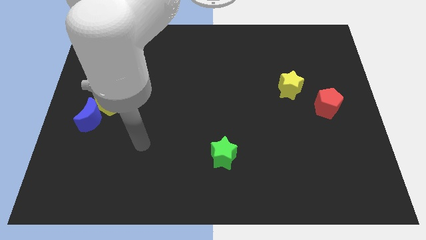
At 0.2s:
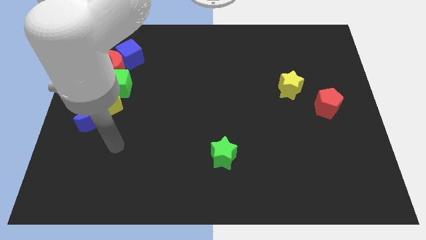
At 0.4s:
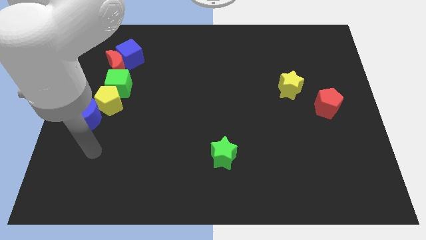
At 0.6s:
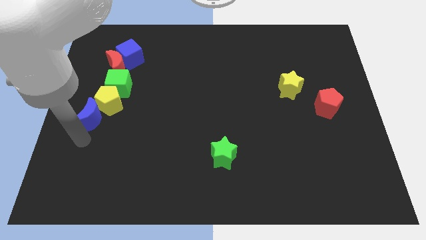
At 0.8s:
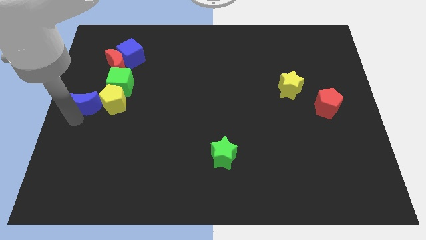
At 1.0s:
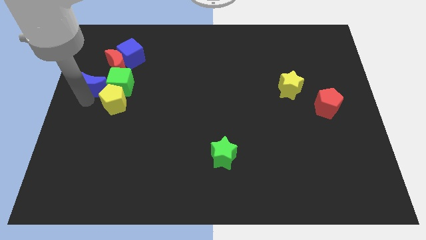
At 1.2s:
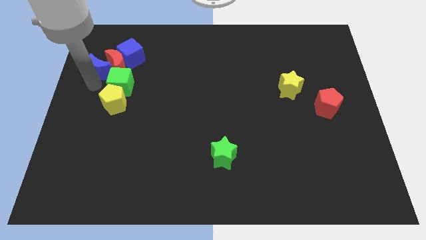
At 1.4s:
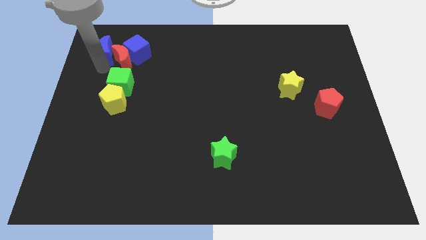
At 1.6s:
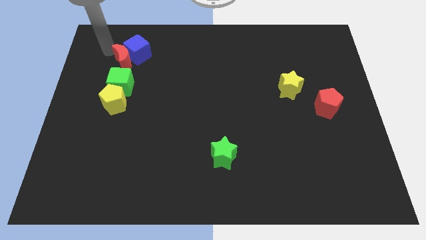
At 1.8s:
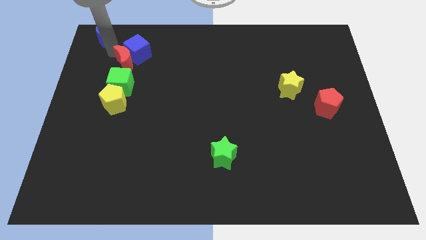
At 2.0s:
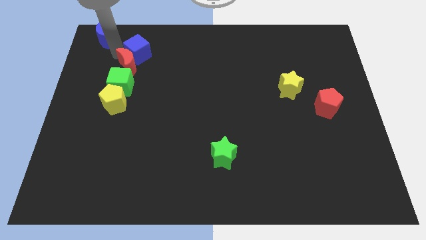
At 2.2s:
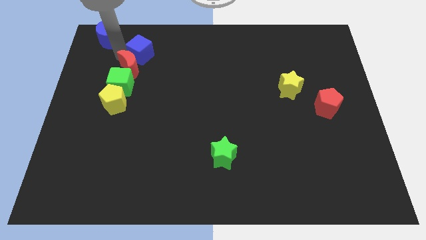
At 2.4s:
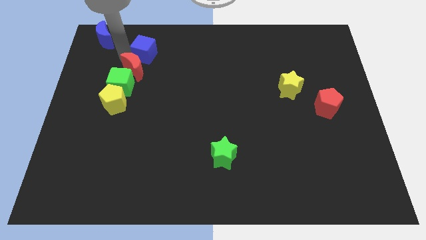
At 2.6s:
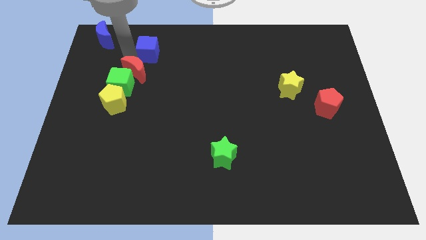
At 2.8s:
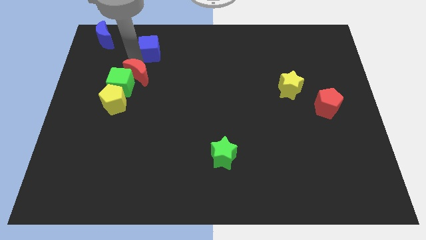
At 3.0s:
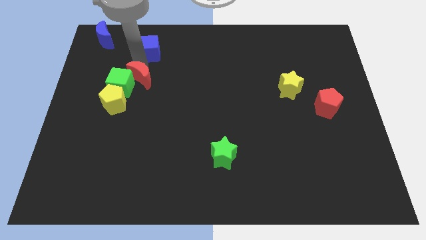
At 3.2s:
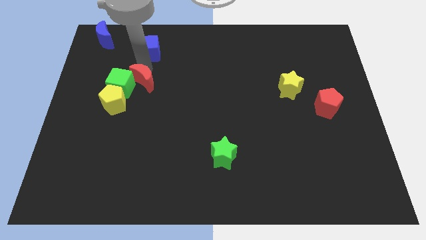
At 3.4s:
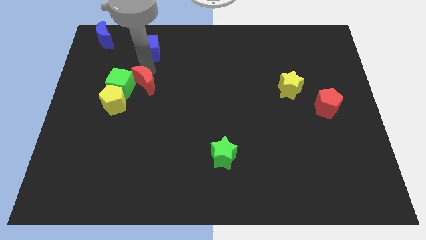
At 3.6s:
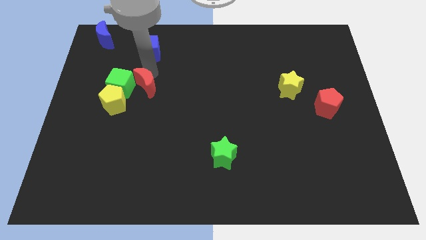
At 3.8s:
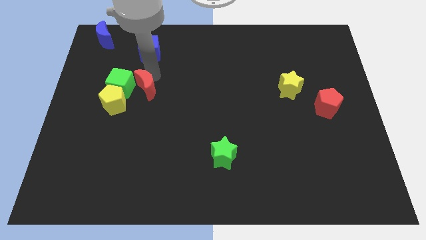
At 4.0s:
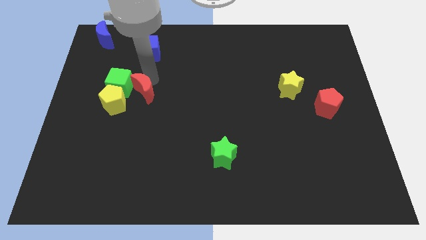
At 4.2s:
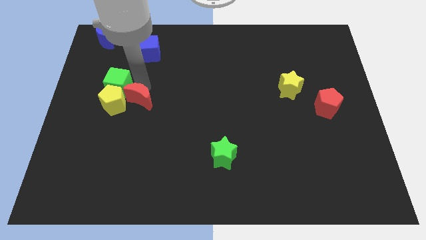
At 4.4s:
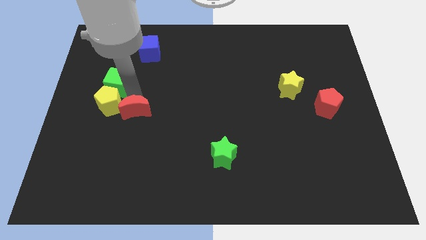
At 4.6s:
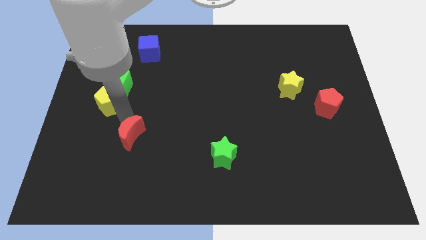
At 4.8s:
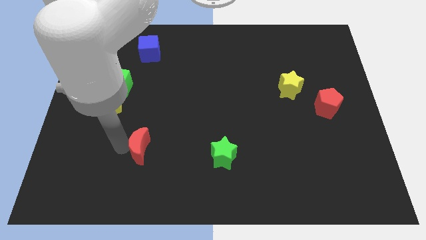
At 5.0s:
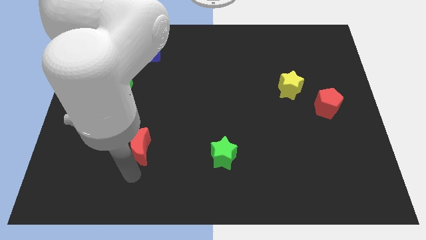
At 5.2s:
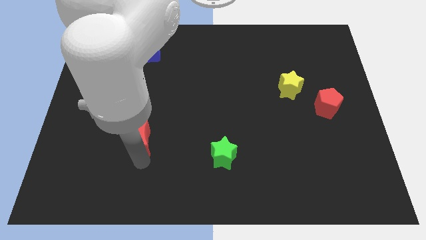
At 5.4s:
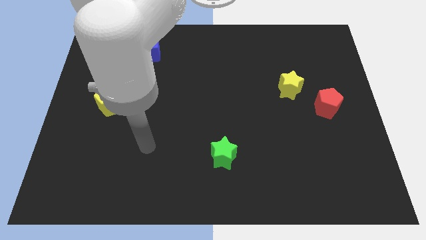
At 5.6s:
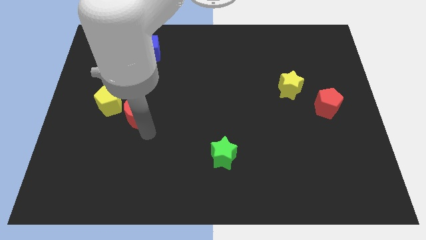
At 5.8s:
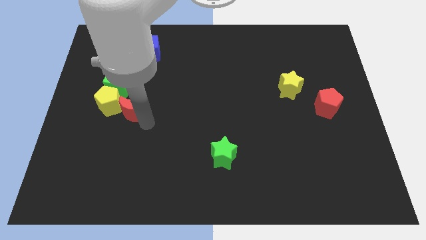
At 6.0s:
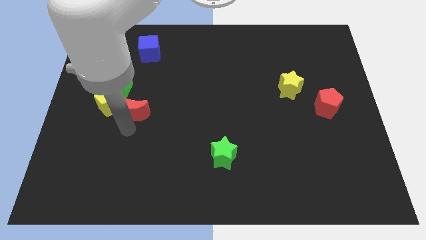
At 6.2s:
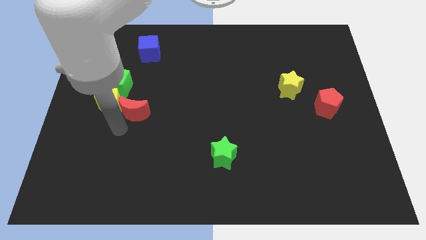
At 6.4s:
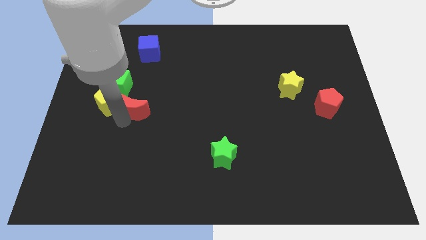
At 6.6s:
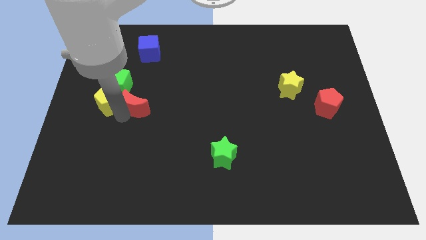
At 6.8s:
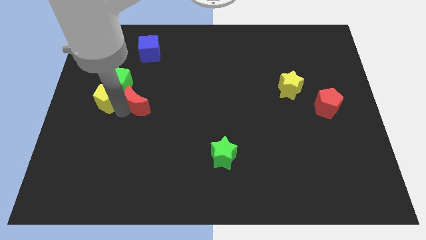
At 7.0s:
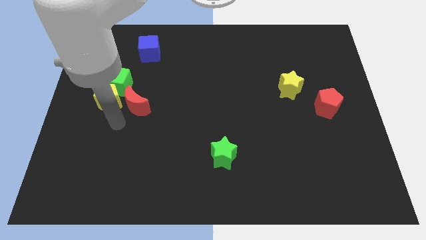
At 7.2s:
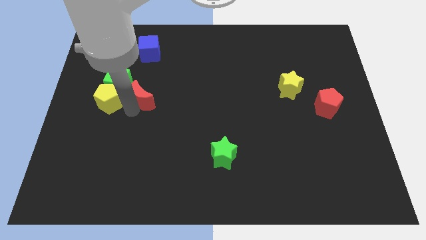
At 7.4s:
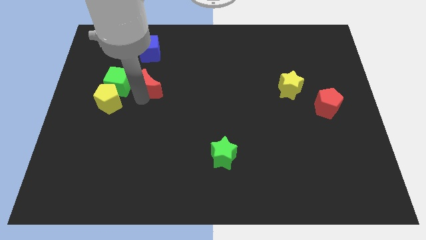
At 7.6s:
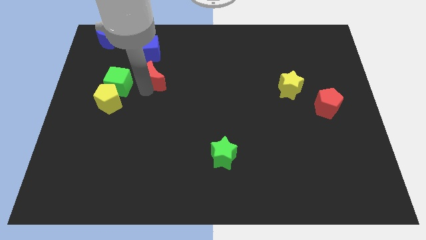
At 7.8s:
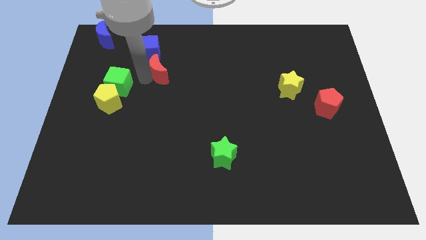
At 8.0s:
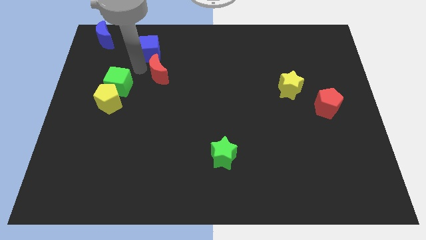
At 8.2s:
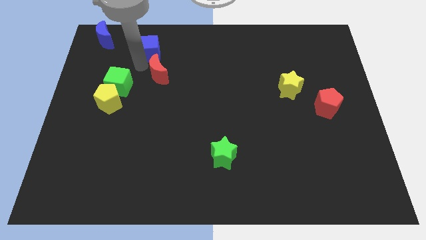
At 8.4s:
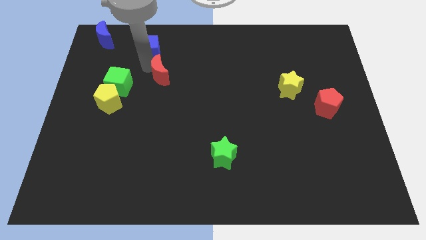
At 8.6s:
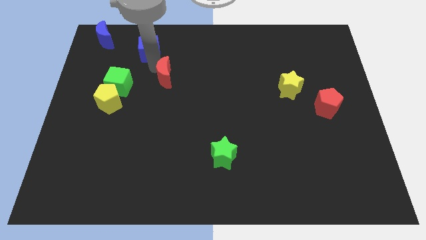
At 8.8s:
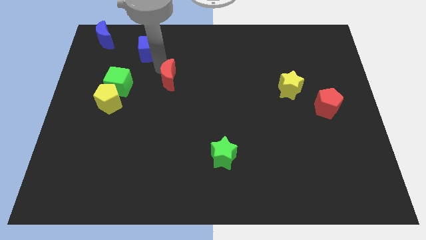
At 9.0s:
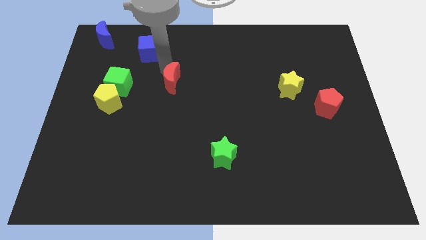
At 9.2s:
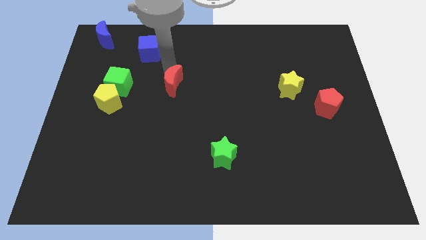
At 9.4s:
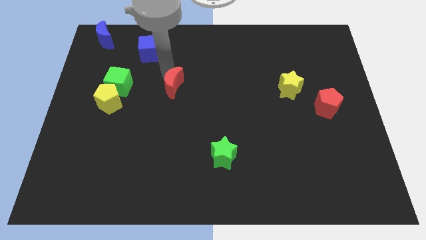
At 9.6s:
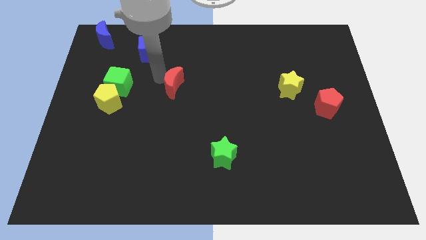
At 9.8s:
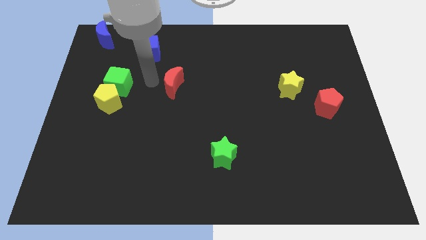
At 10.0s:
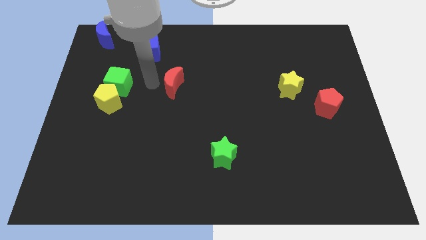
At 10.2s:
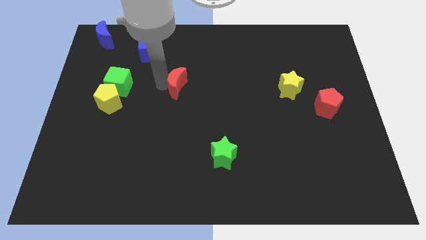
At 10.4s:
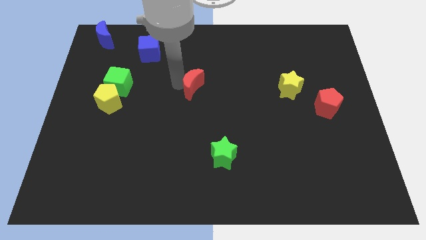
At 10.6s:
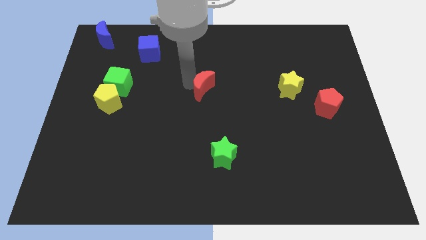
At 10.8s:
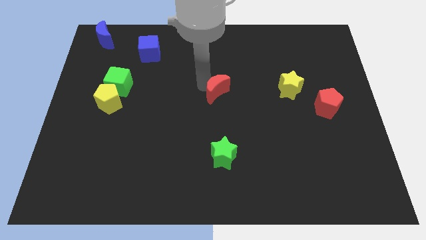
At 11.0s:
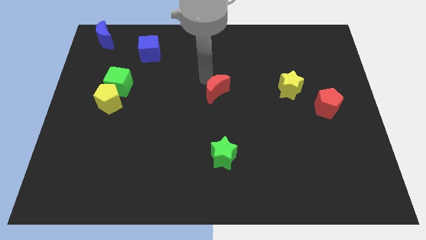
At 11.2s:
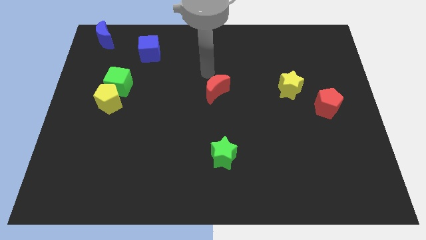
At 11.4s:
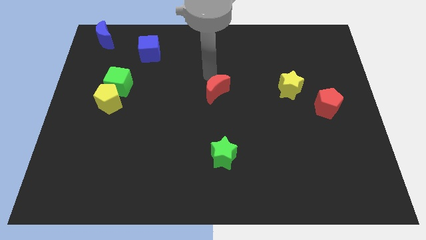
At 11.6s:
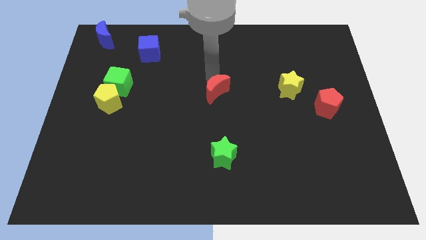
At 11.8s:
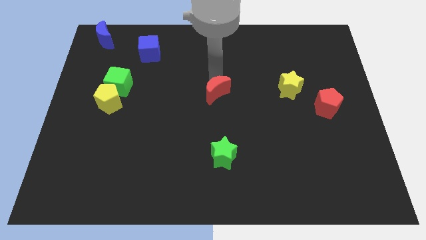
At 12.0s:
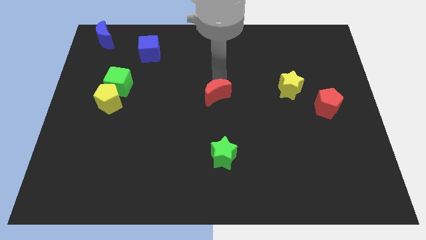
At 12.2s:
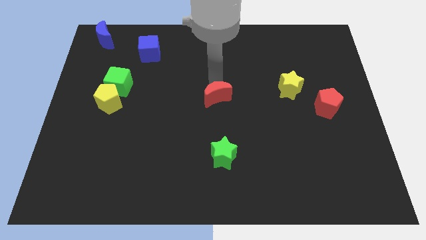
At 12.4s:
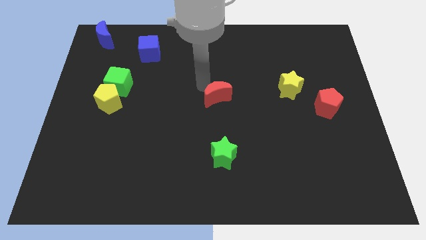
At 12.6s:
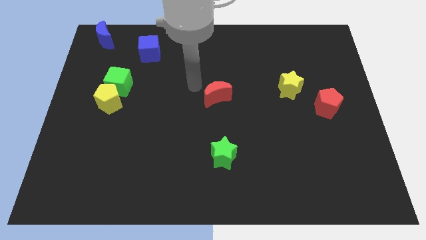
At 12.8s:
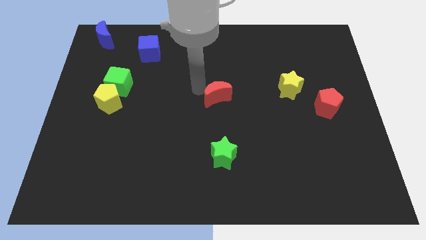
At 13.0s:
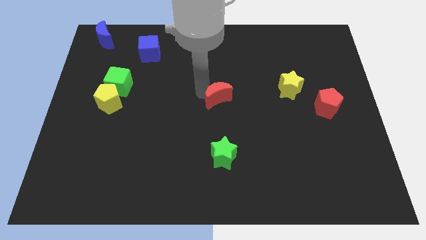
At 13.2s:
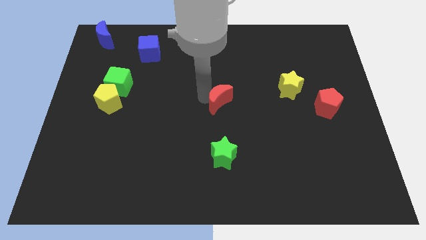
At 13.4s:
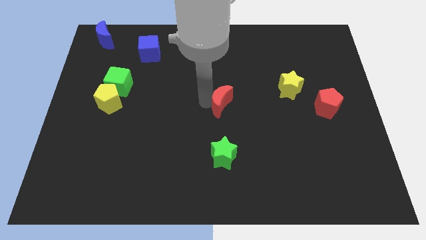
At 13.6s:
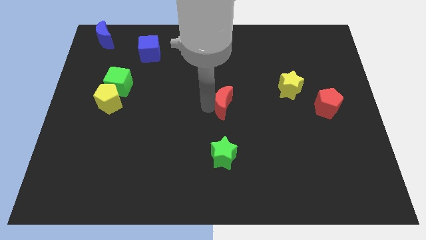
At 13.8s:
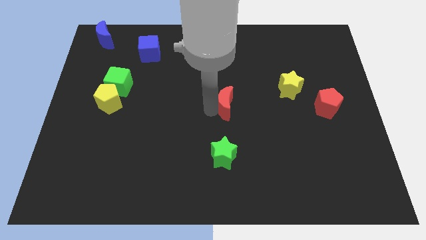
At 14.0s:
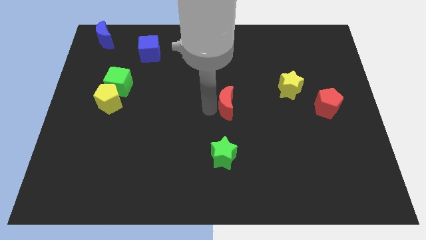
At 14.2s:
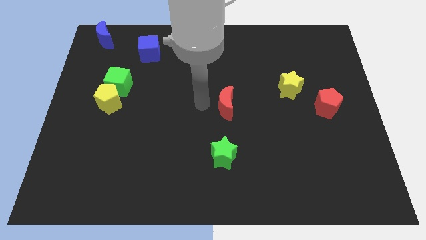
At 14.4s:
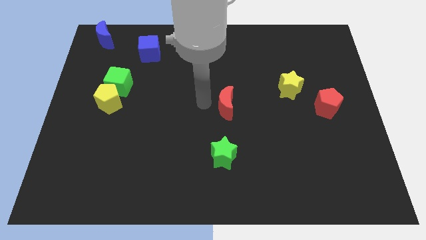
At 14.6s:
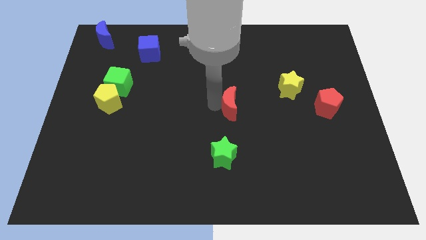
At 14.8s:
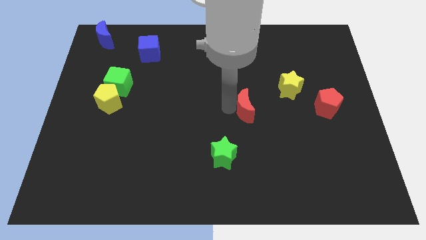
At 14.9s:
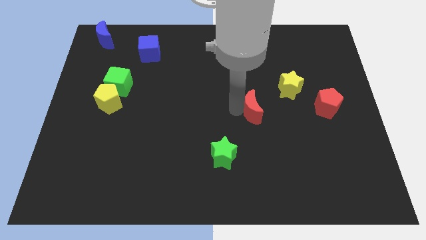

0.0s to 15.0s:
move the red moon to the bottom left side of the yellow star
